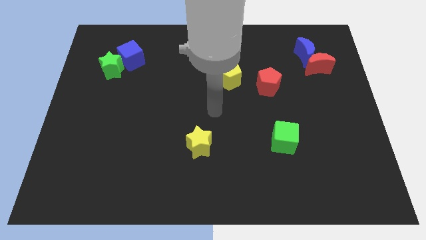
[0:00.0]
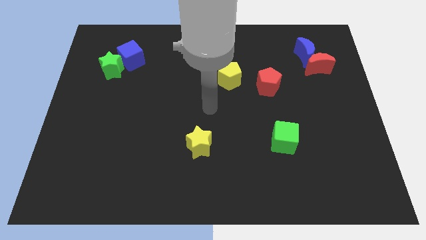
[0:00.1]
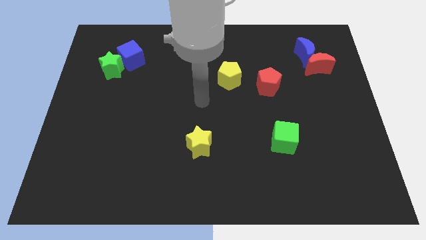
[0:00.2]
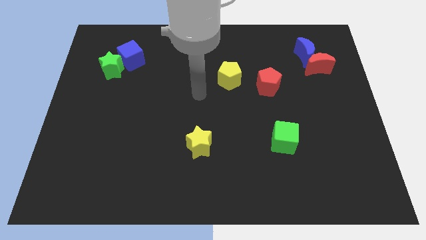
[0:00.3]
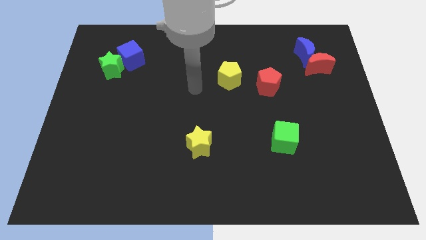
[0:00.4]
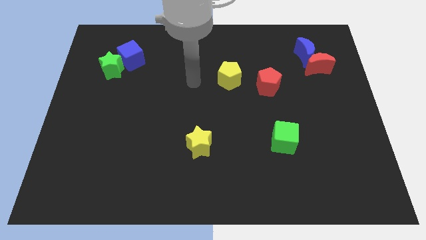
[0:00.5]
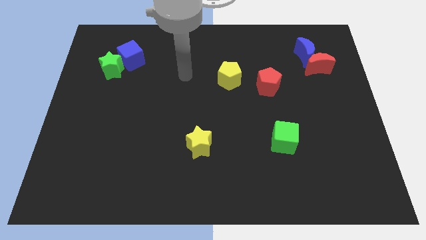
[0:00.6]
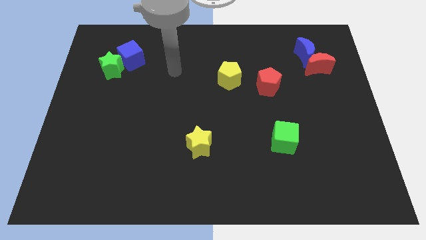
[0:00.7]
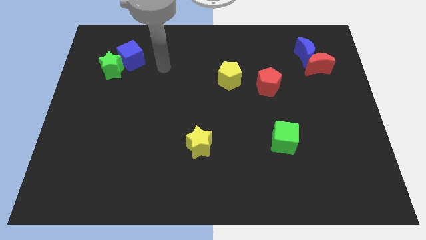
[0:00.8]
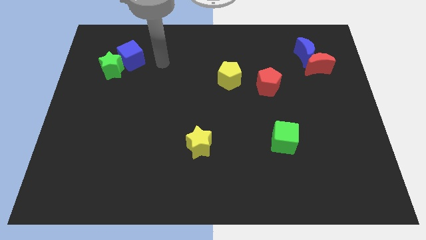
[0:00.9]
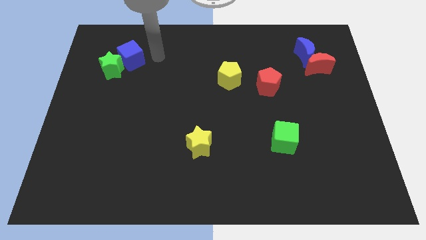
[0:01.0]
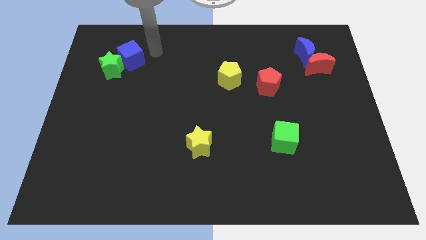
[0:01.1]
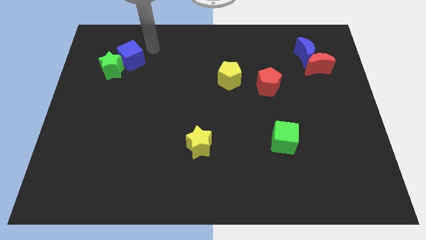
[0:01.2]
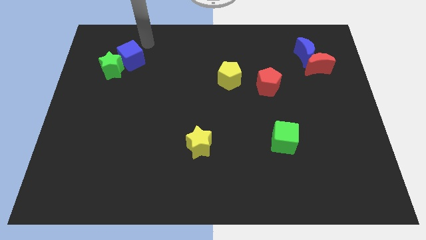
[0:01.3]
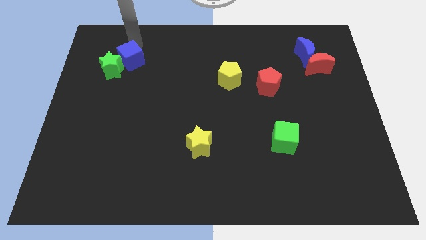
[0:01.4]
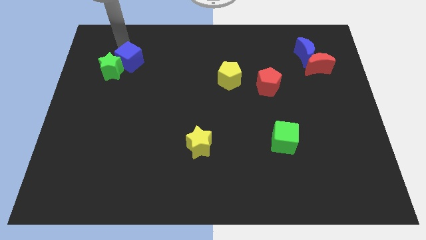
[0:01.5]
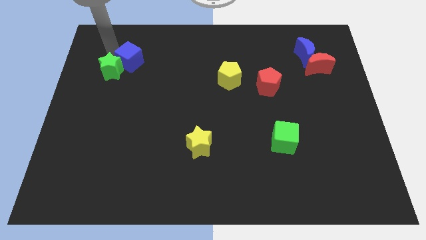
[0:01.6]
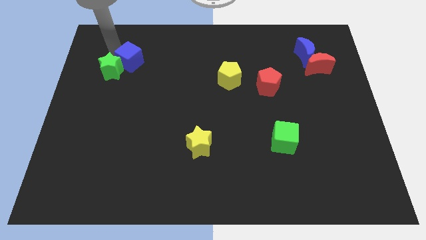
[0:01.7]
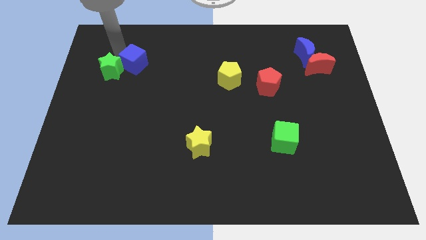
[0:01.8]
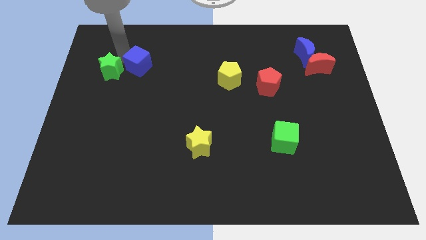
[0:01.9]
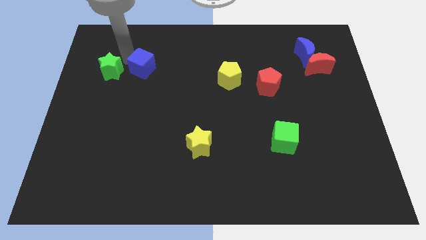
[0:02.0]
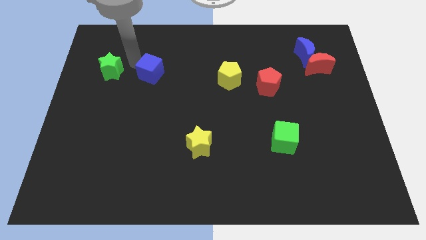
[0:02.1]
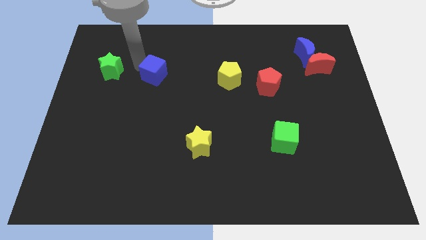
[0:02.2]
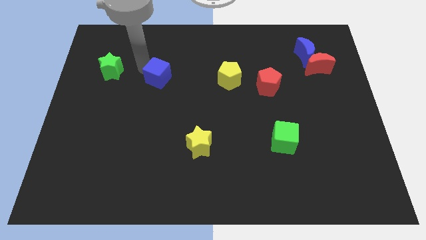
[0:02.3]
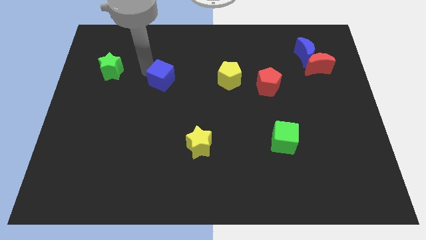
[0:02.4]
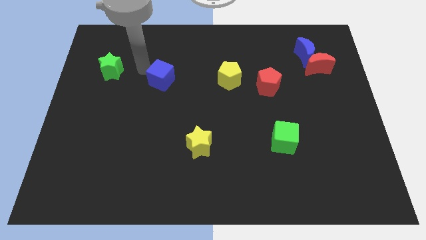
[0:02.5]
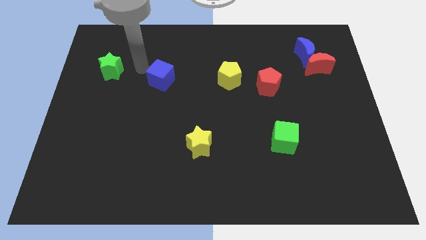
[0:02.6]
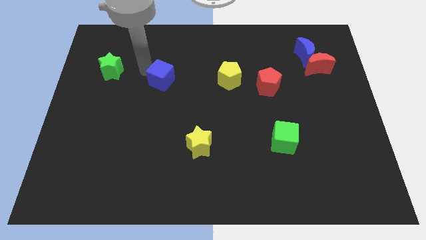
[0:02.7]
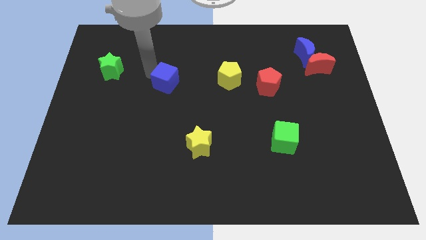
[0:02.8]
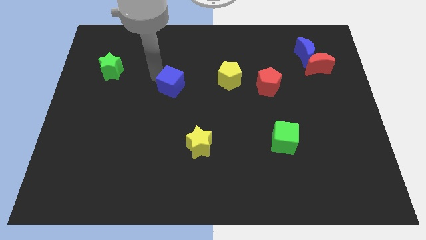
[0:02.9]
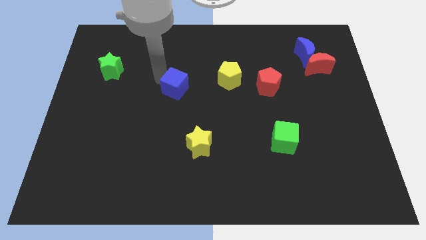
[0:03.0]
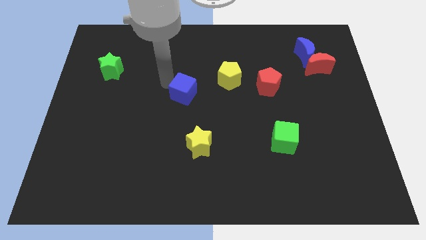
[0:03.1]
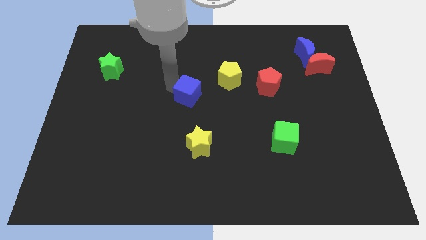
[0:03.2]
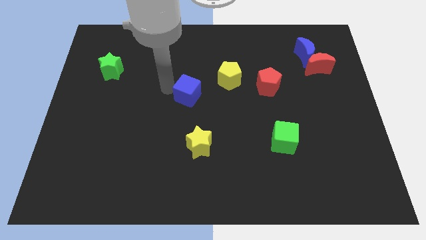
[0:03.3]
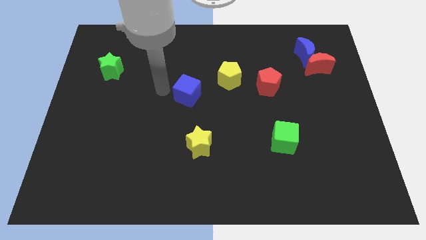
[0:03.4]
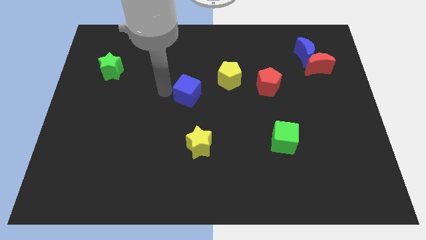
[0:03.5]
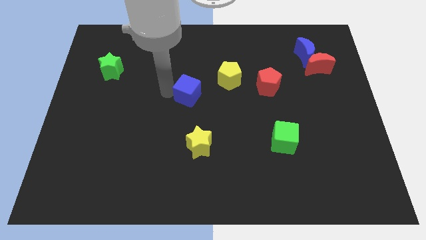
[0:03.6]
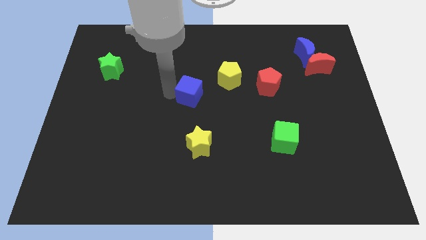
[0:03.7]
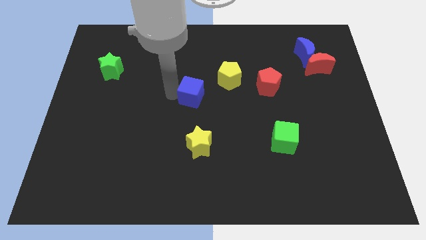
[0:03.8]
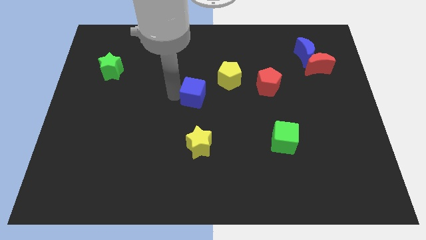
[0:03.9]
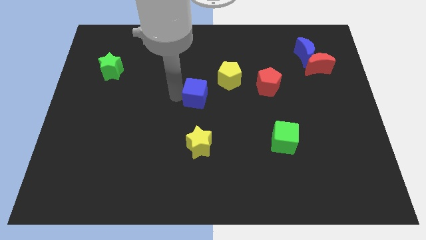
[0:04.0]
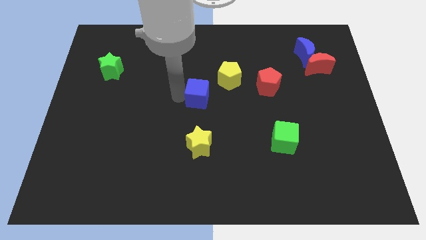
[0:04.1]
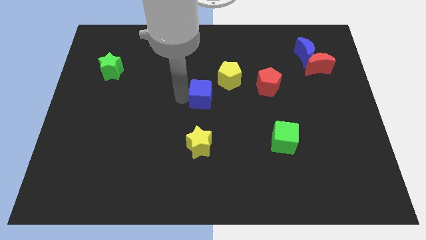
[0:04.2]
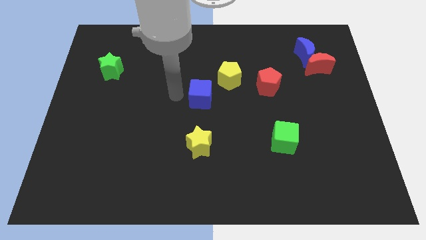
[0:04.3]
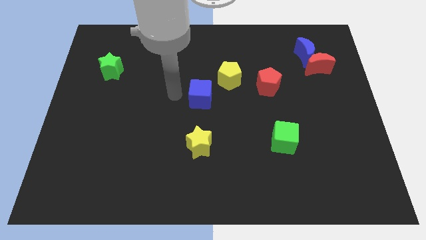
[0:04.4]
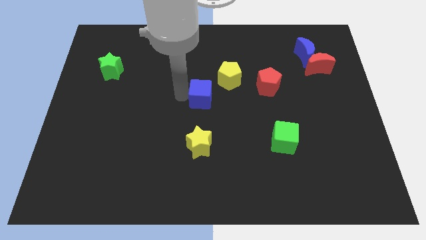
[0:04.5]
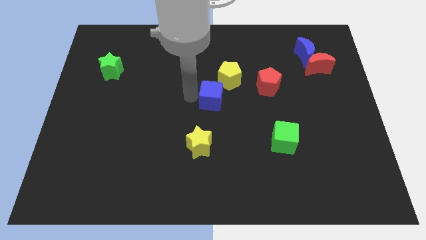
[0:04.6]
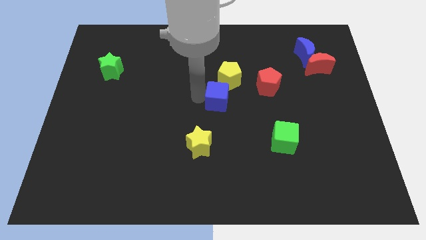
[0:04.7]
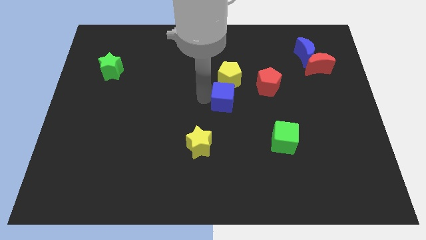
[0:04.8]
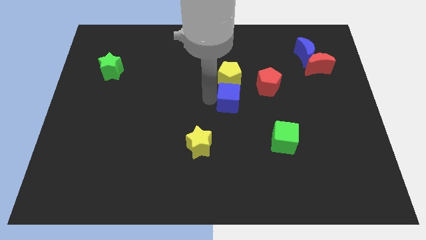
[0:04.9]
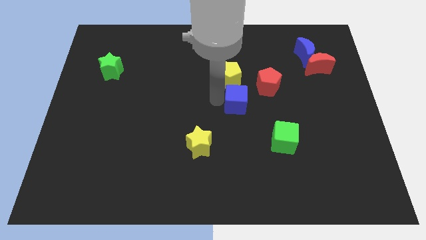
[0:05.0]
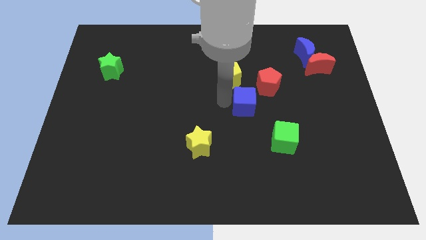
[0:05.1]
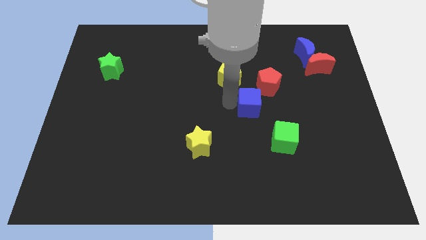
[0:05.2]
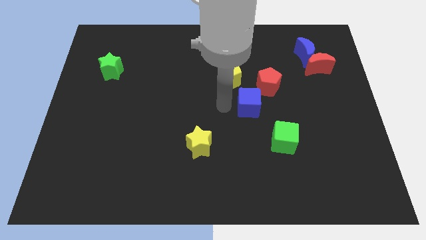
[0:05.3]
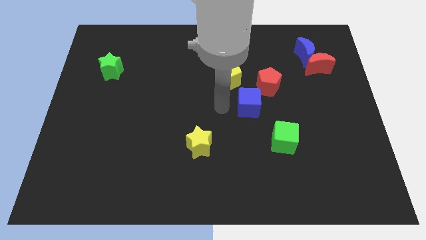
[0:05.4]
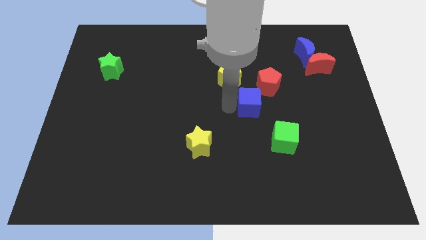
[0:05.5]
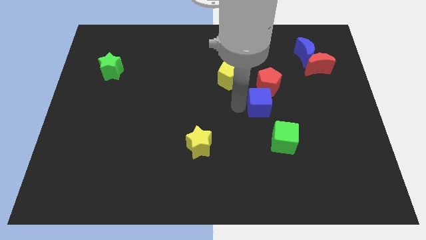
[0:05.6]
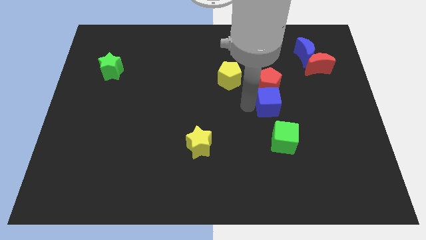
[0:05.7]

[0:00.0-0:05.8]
put the blue cube diagonally down and to the right of the red pentagon

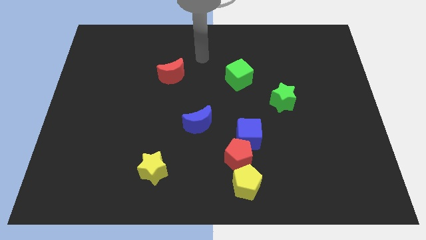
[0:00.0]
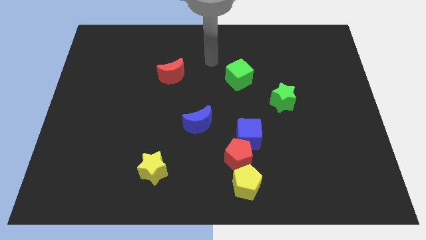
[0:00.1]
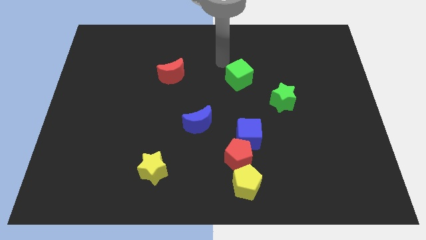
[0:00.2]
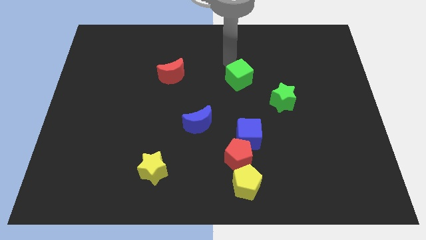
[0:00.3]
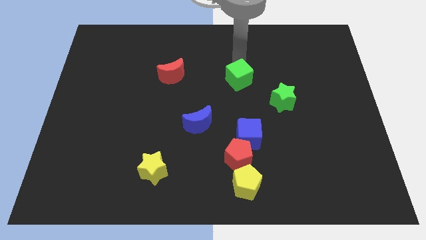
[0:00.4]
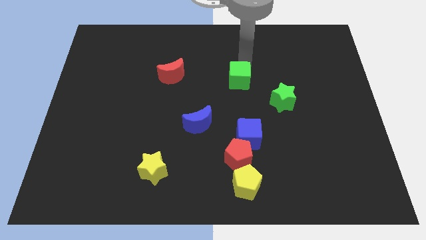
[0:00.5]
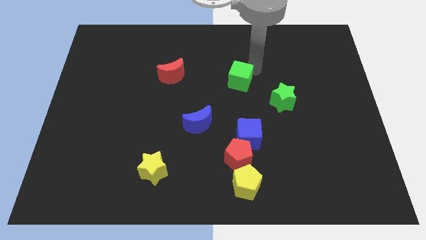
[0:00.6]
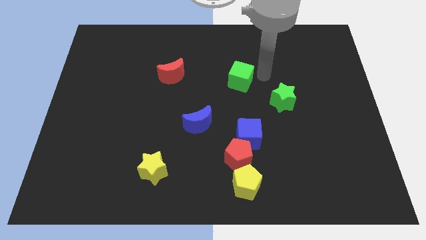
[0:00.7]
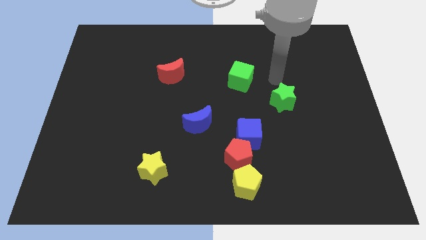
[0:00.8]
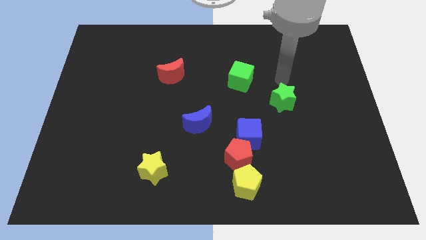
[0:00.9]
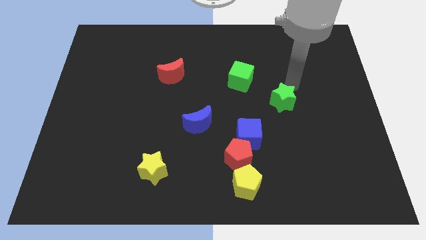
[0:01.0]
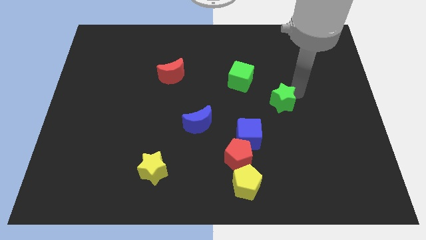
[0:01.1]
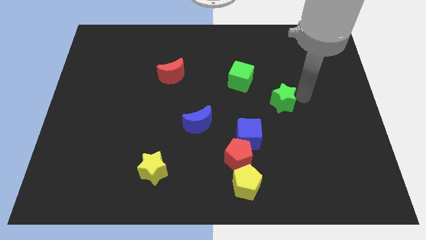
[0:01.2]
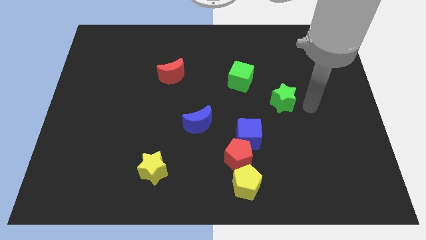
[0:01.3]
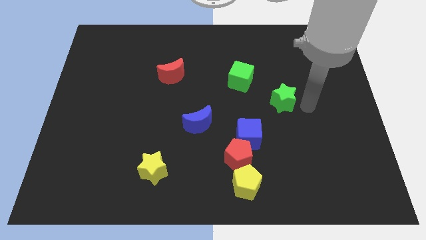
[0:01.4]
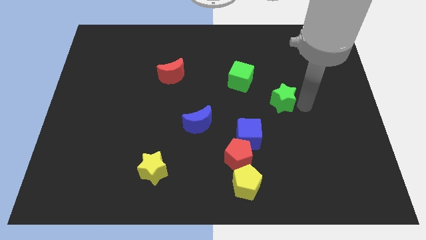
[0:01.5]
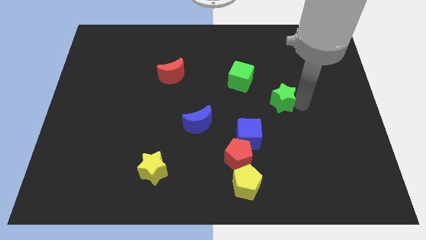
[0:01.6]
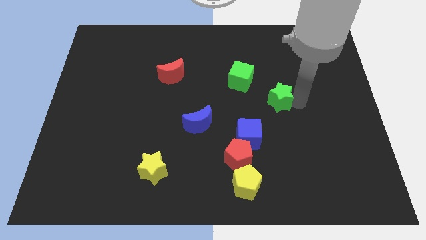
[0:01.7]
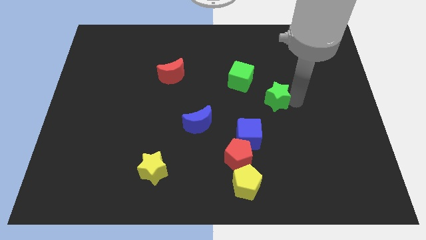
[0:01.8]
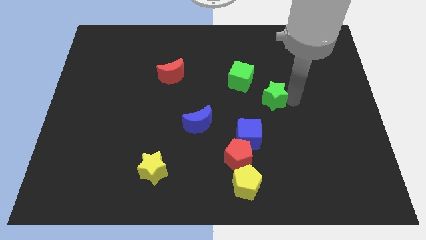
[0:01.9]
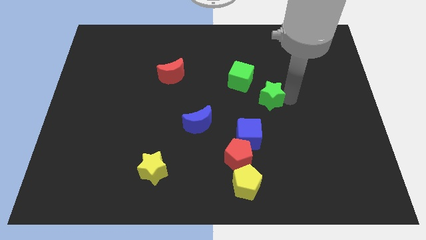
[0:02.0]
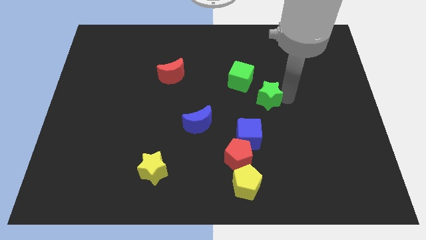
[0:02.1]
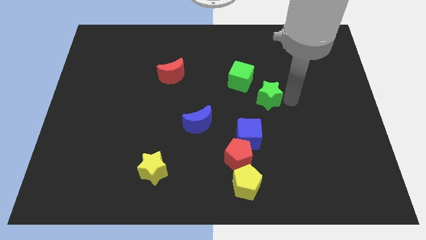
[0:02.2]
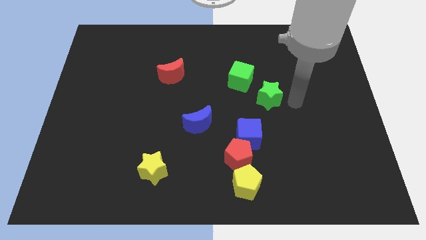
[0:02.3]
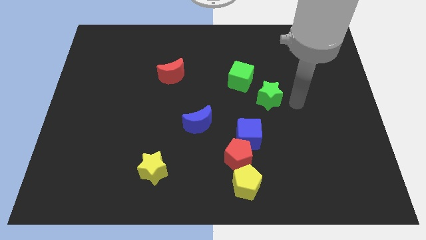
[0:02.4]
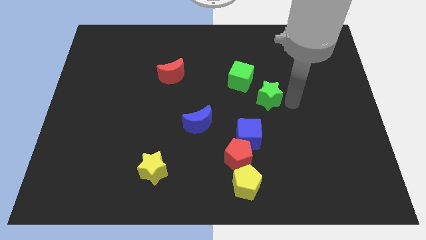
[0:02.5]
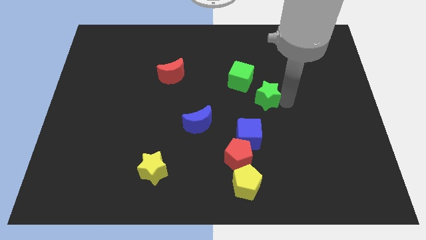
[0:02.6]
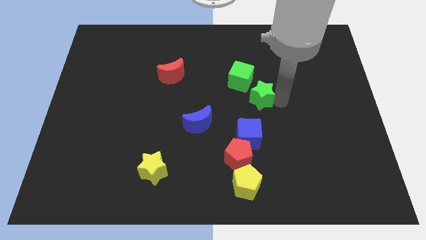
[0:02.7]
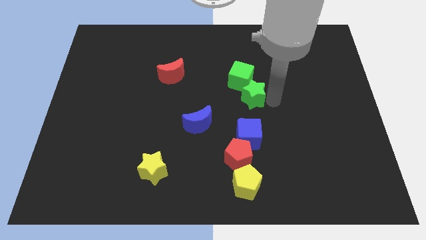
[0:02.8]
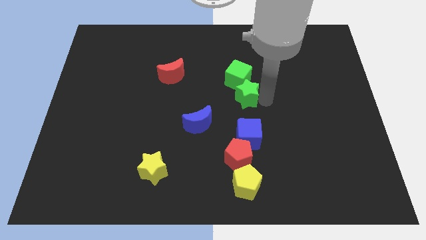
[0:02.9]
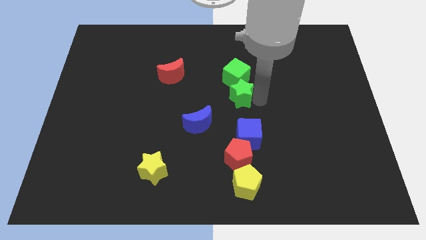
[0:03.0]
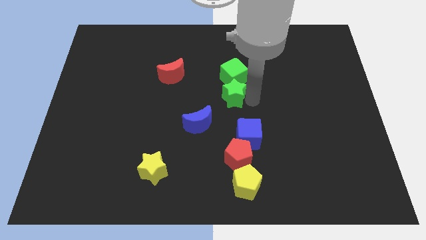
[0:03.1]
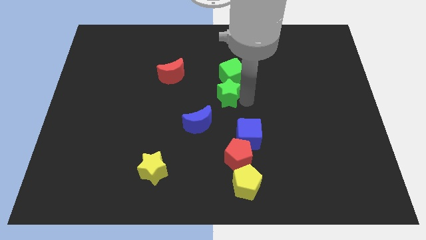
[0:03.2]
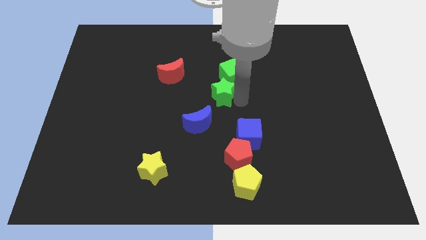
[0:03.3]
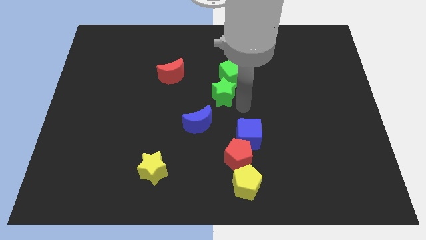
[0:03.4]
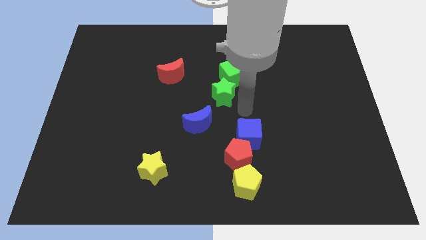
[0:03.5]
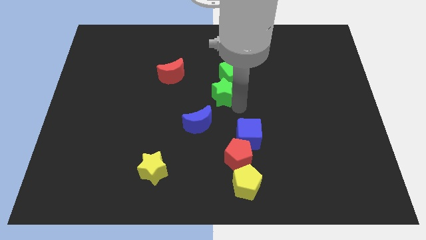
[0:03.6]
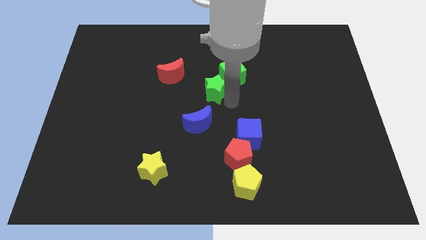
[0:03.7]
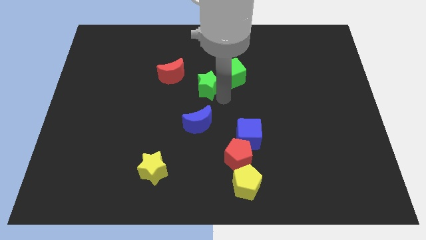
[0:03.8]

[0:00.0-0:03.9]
push the green star to the left of the green cube
